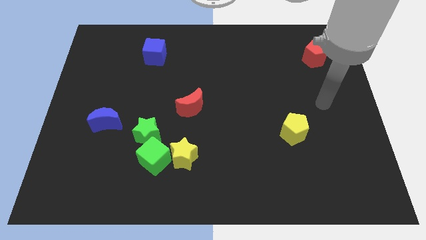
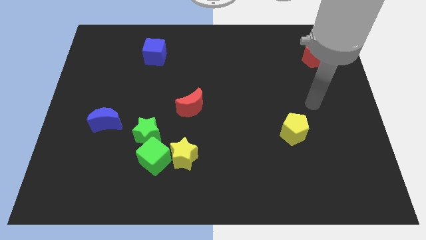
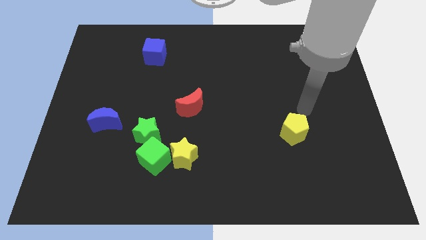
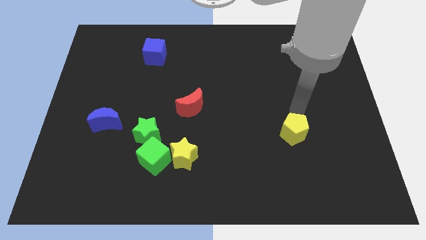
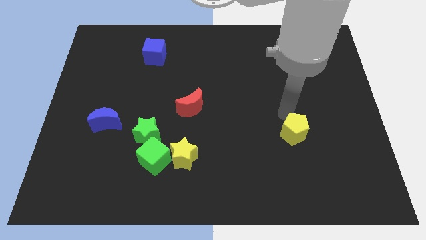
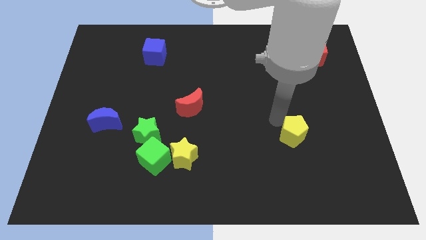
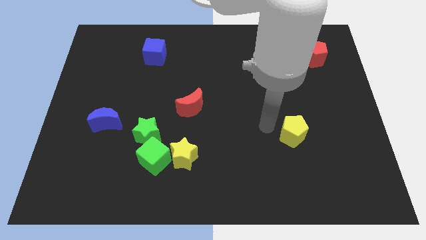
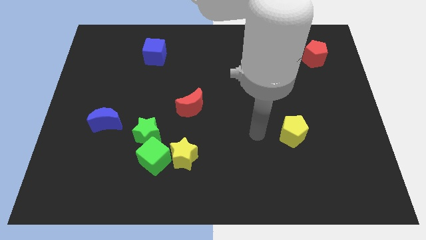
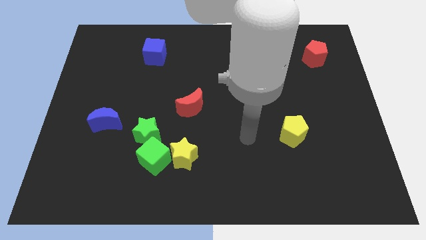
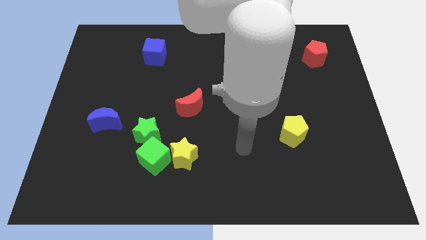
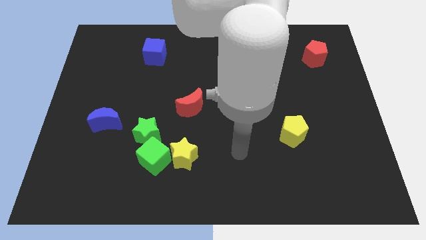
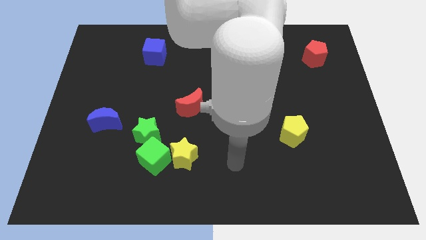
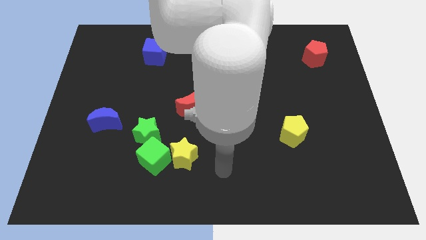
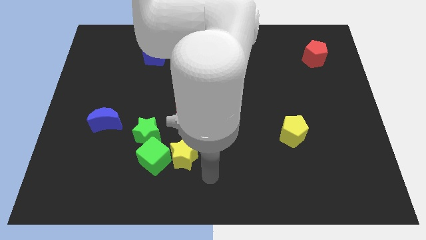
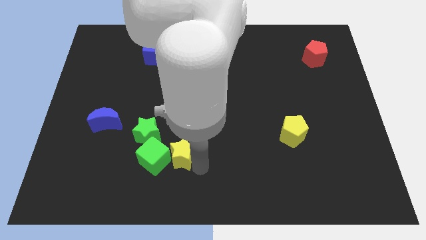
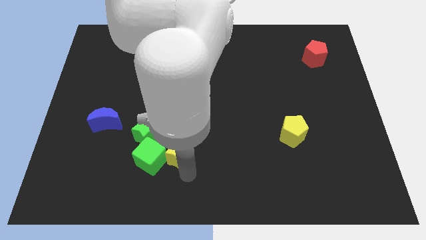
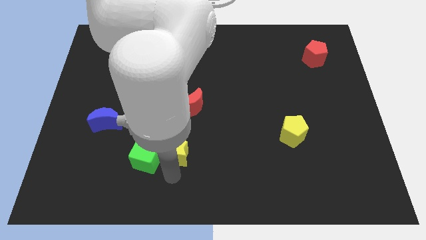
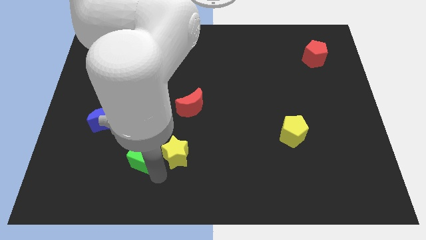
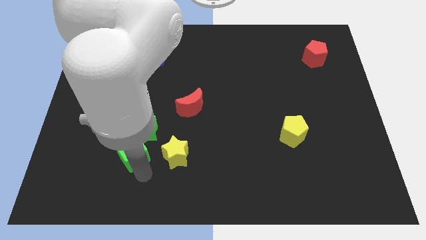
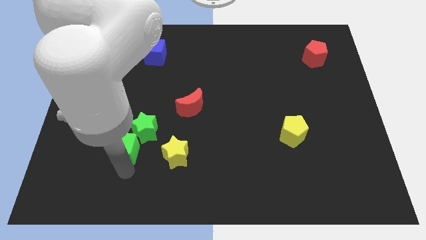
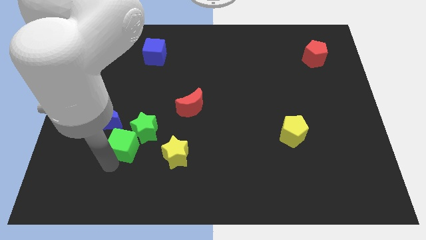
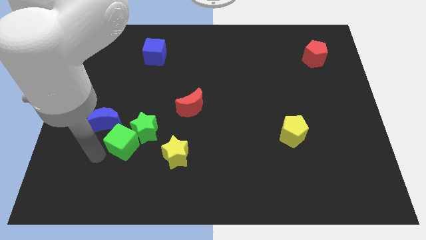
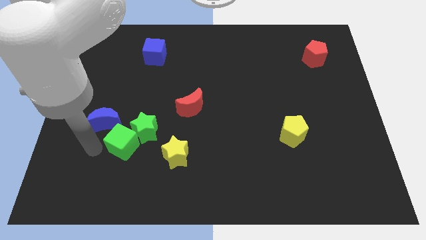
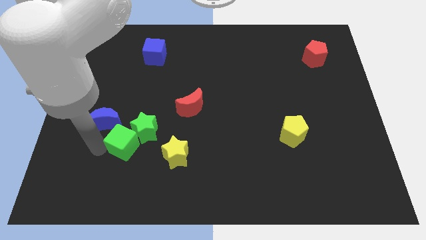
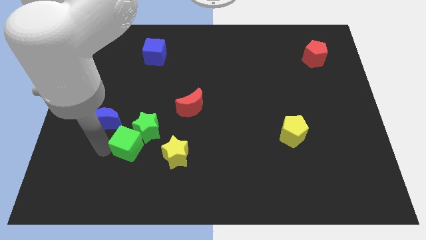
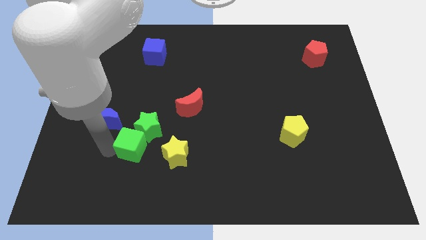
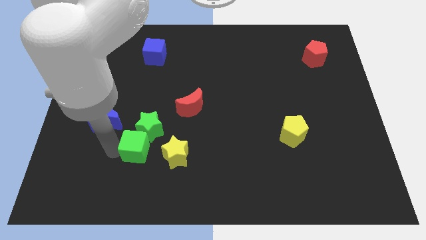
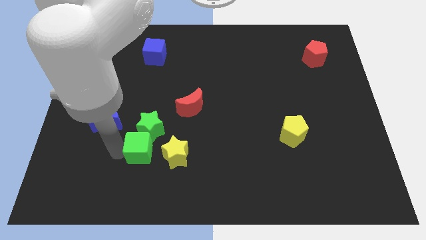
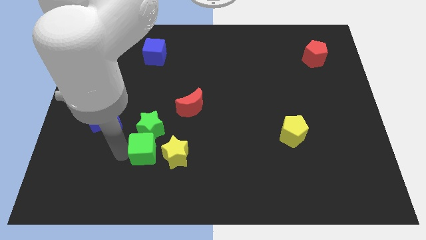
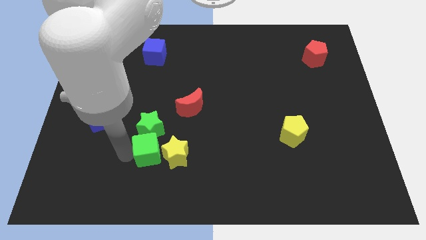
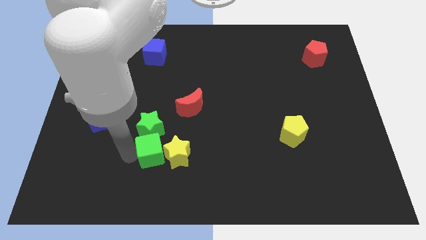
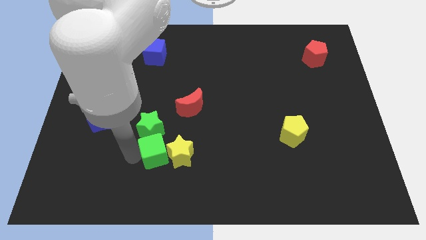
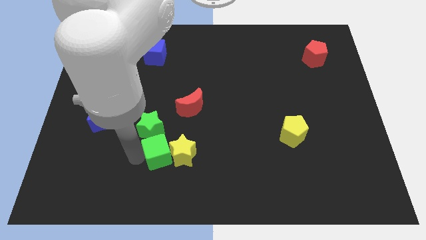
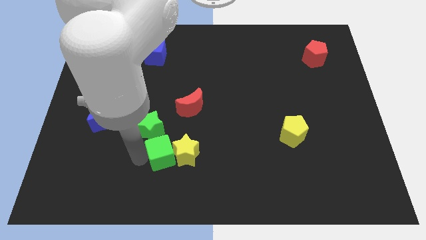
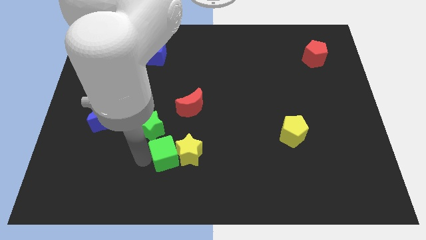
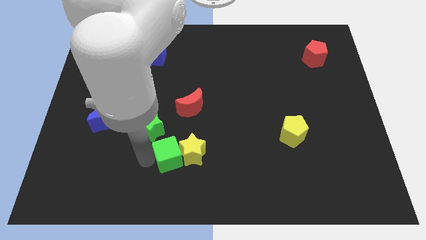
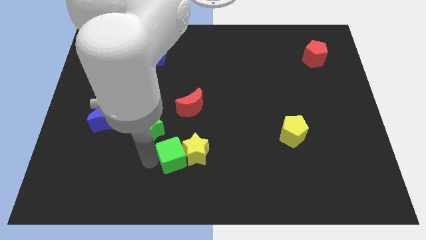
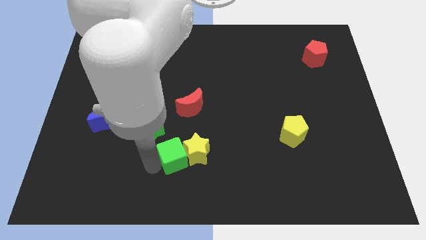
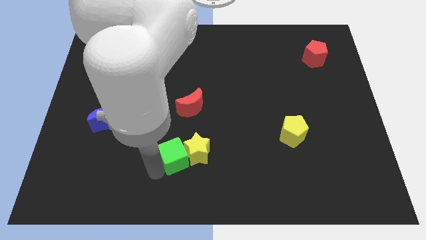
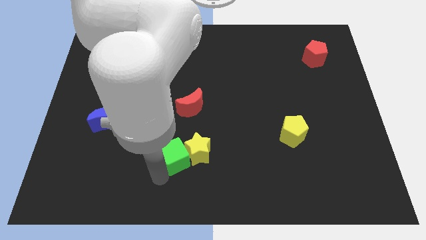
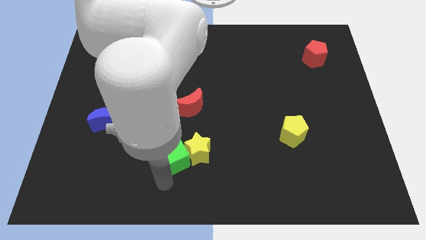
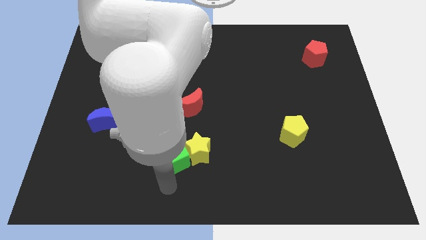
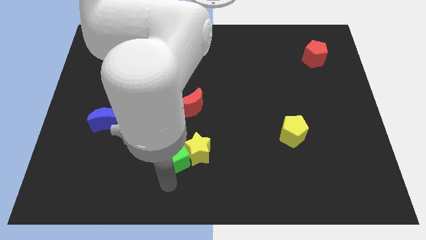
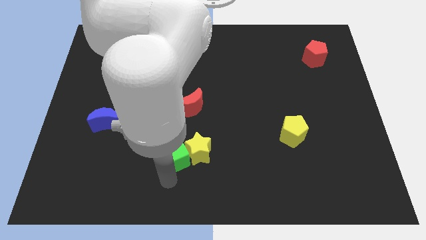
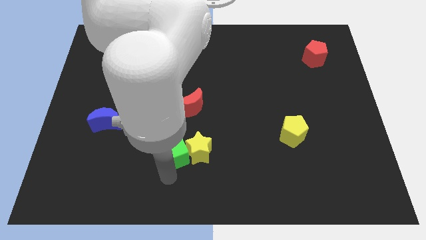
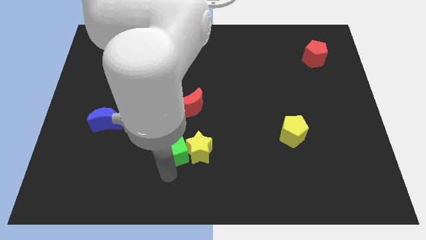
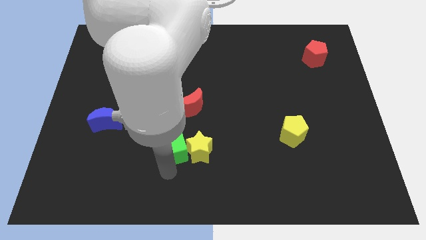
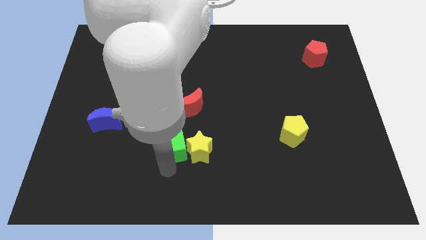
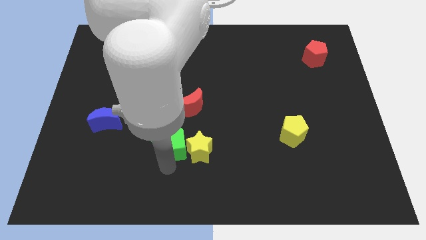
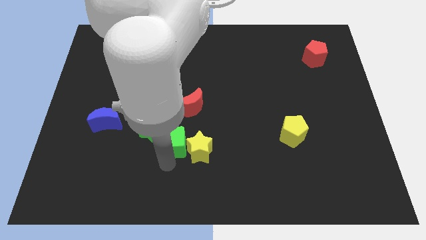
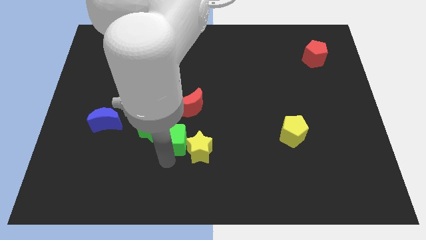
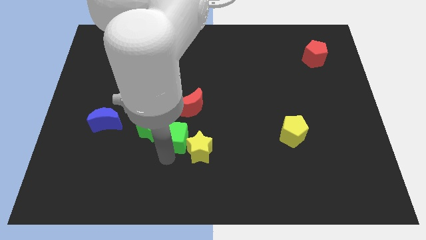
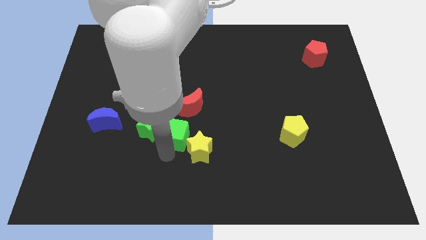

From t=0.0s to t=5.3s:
move the green cube up and then to the right somewhat

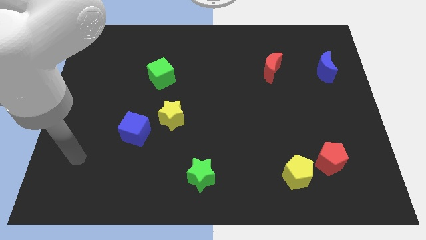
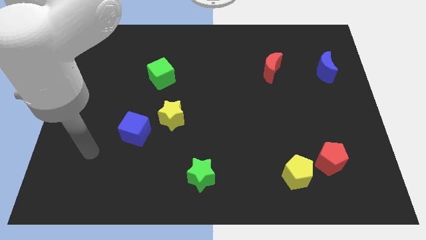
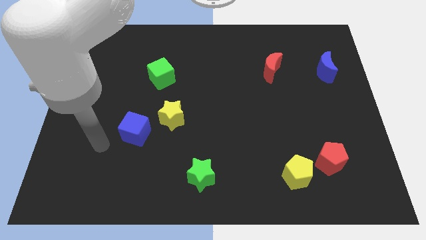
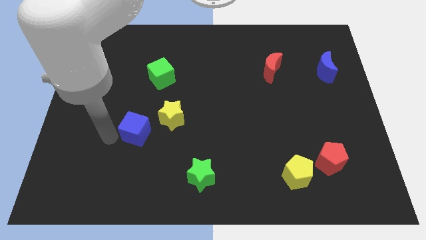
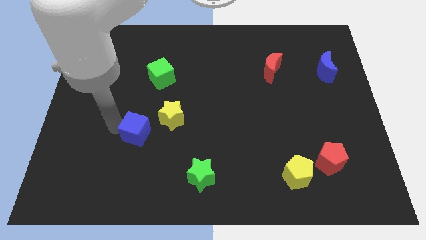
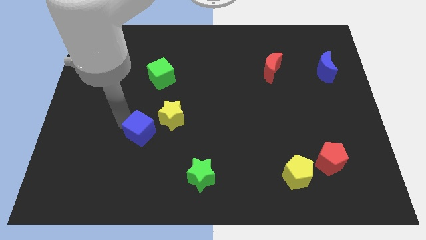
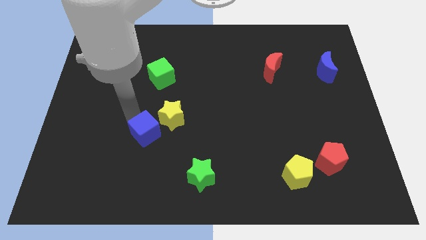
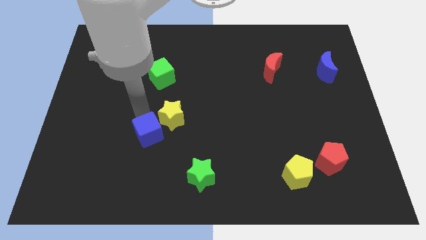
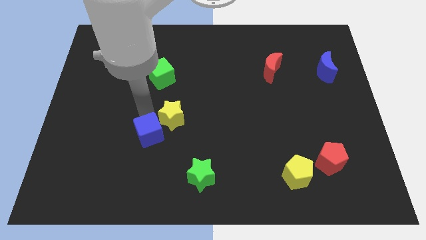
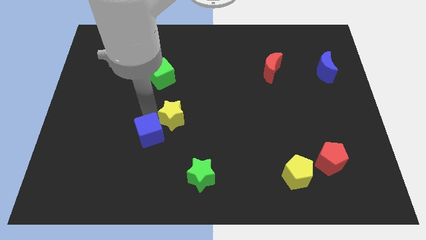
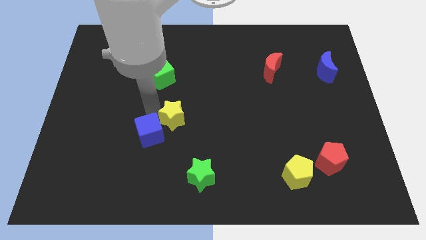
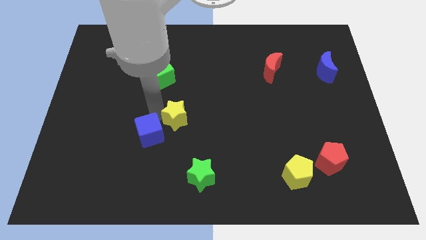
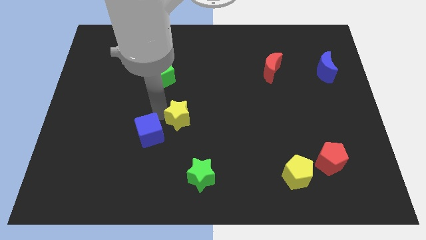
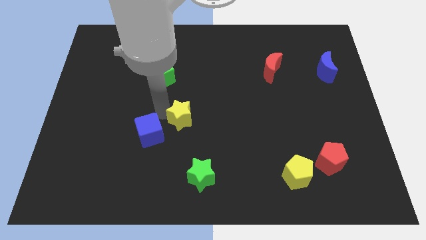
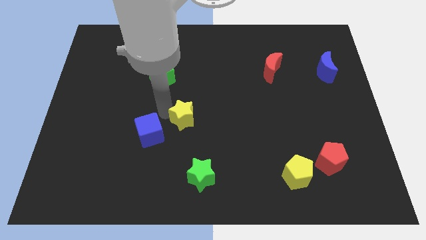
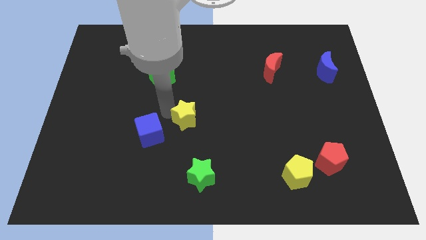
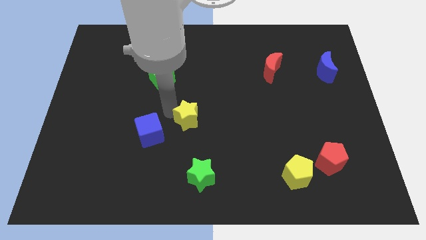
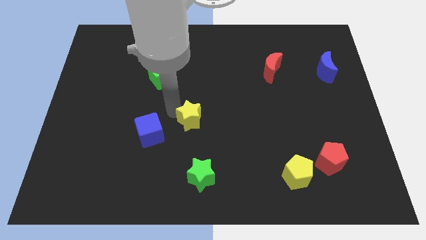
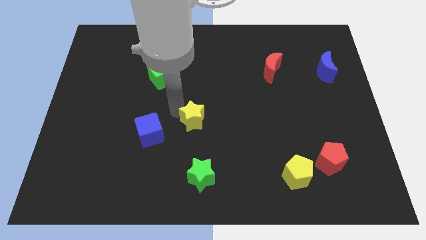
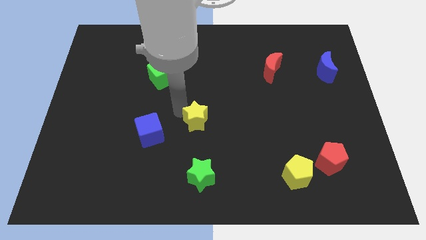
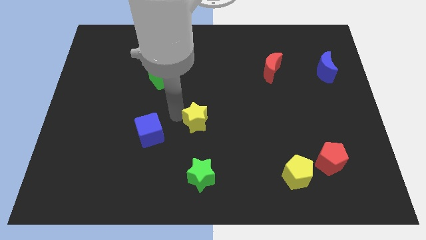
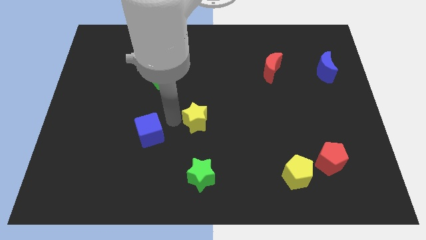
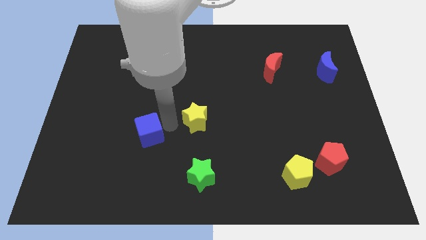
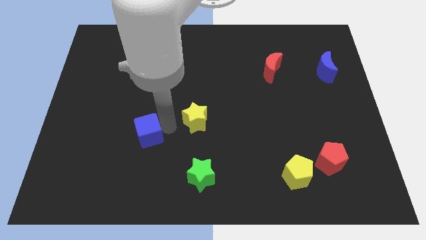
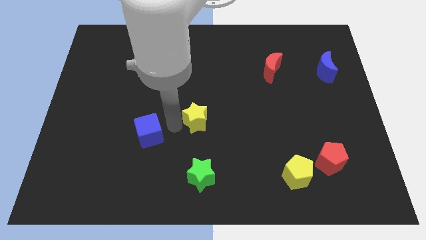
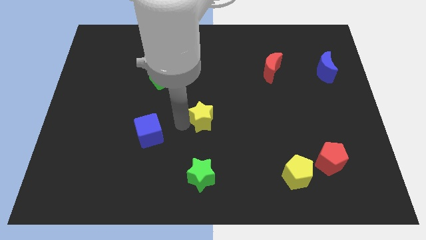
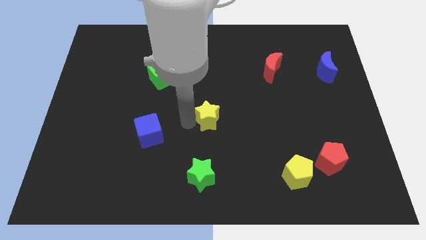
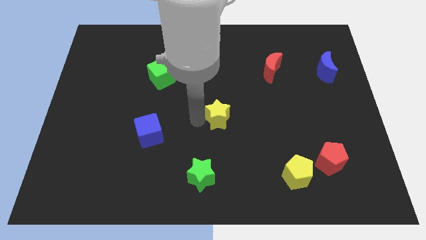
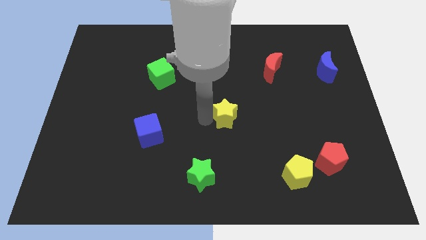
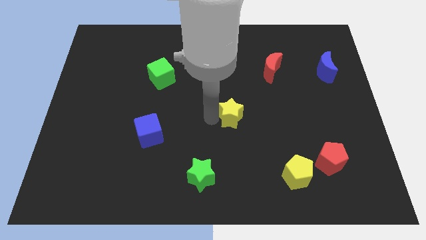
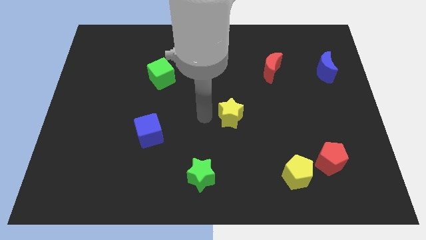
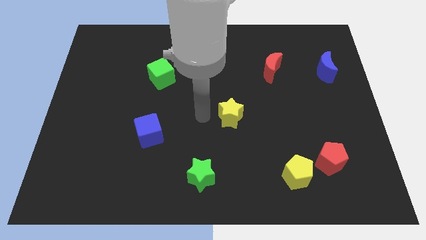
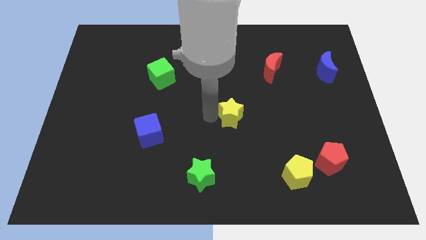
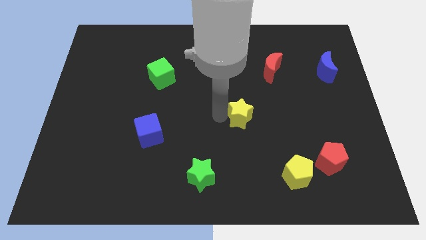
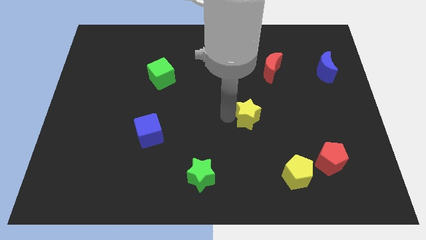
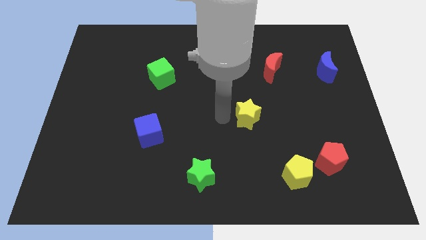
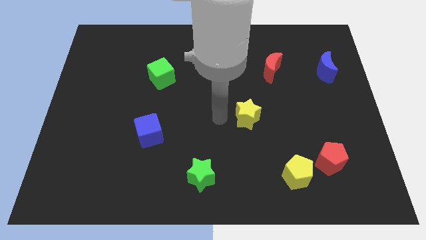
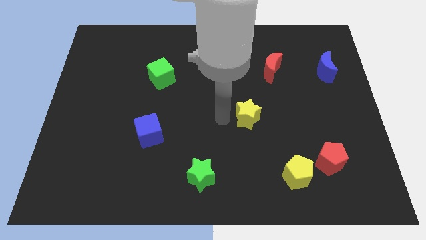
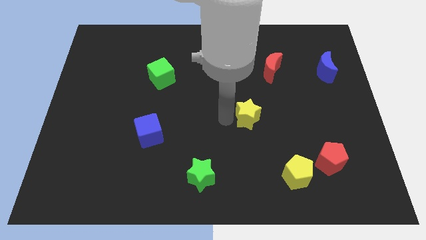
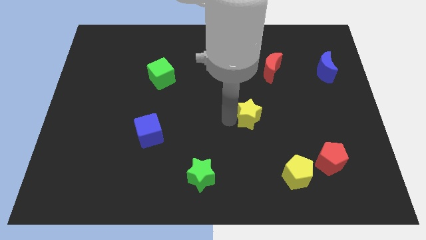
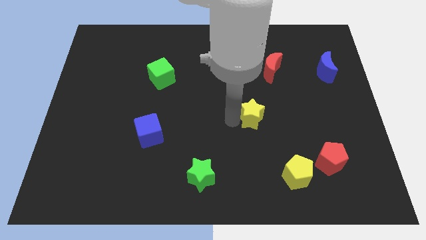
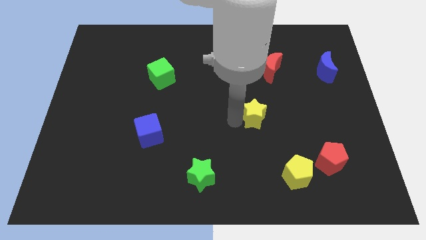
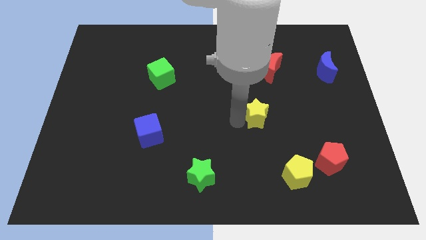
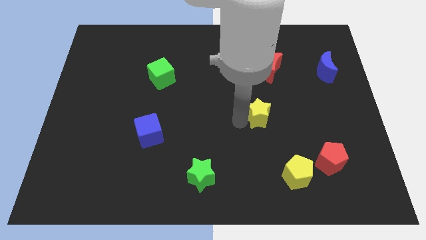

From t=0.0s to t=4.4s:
slide the yellow star to the right
